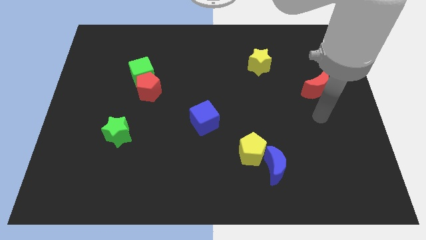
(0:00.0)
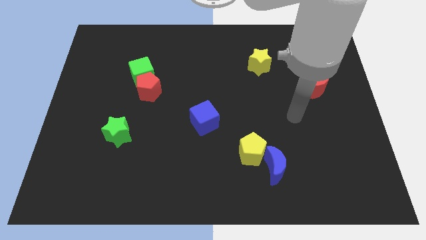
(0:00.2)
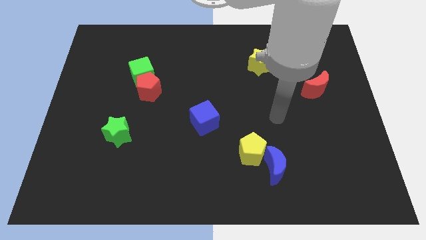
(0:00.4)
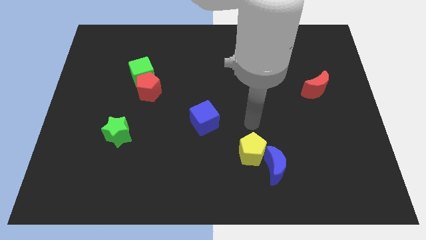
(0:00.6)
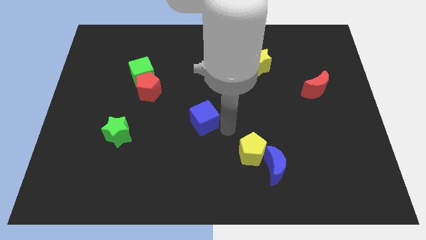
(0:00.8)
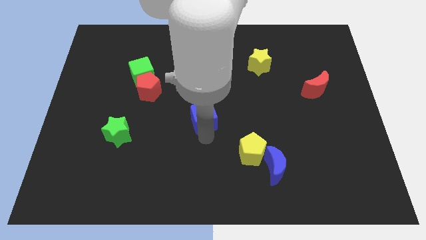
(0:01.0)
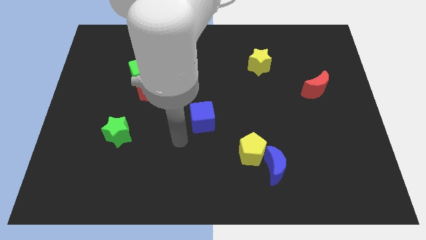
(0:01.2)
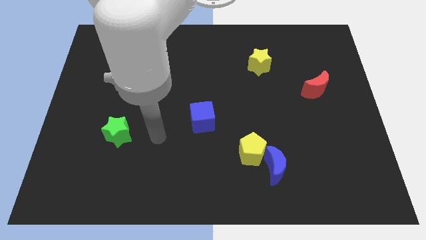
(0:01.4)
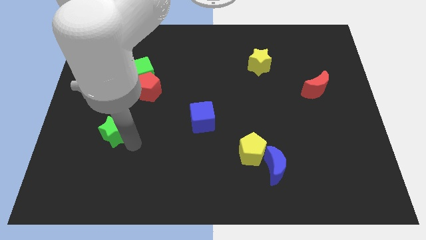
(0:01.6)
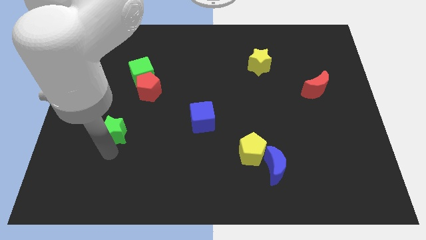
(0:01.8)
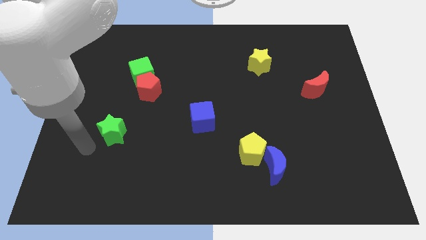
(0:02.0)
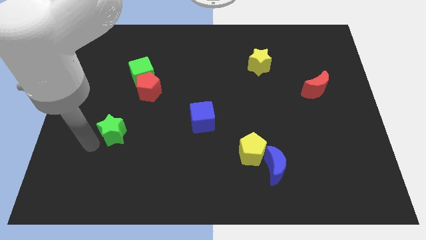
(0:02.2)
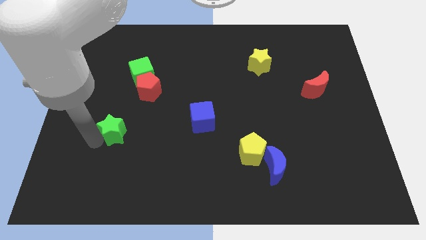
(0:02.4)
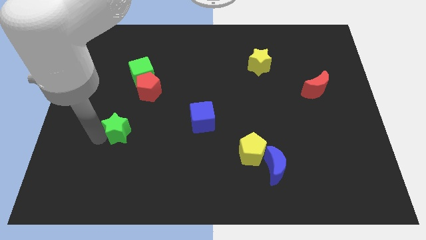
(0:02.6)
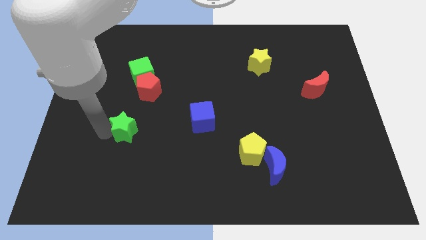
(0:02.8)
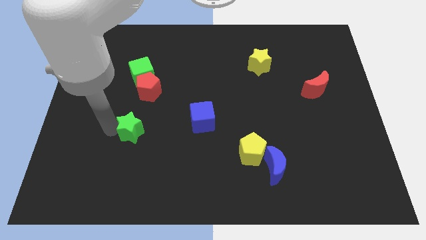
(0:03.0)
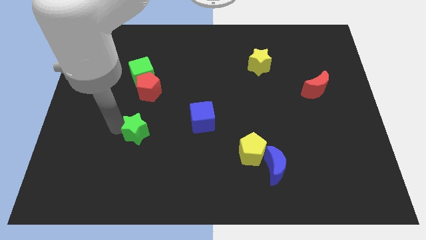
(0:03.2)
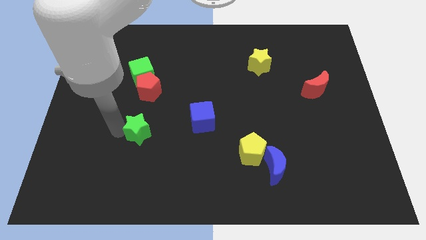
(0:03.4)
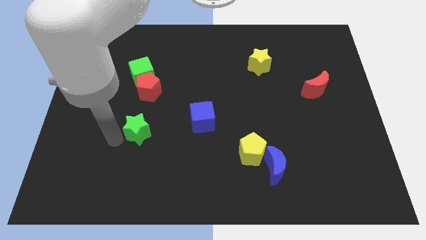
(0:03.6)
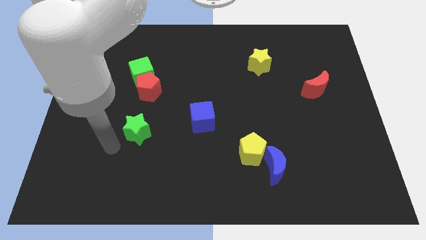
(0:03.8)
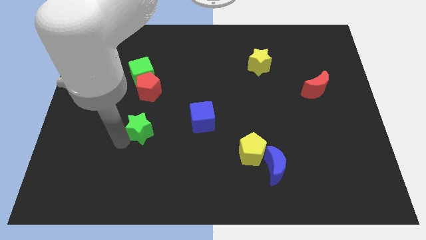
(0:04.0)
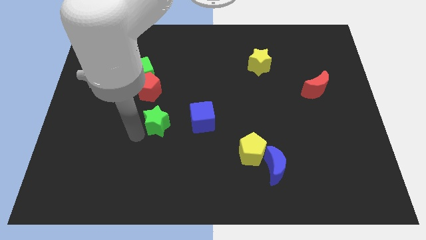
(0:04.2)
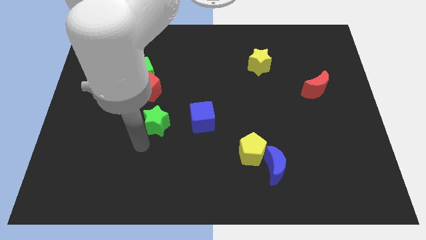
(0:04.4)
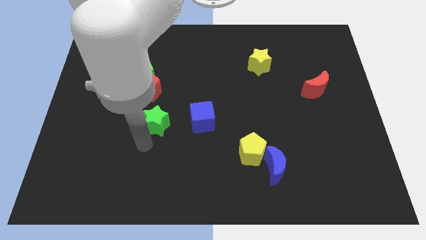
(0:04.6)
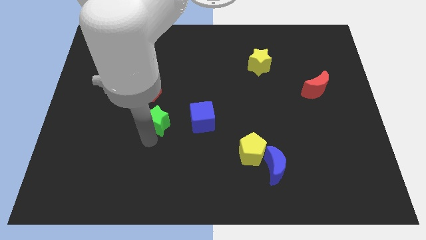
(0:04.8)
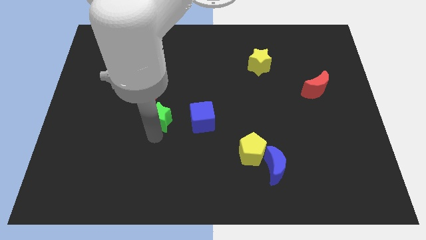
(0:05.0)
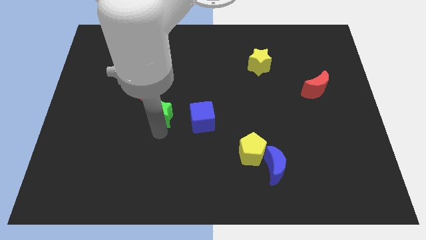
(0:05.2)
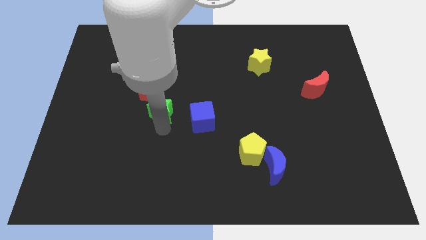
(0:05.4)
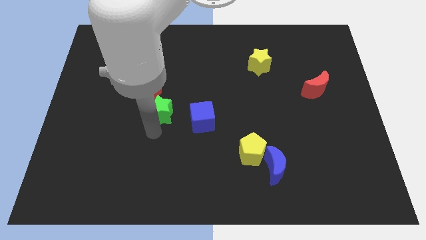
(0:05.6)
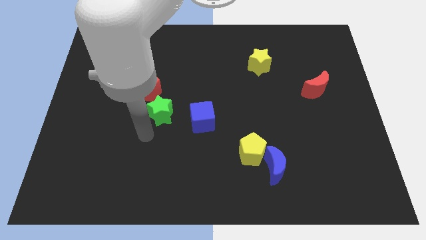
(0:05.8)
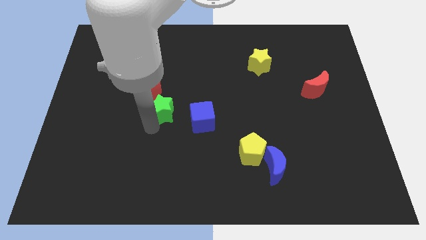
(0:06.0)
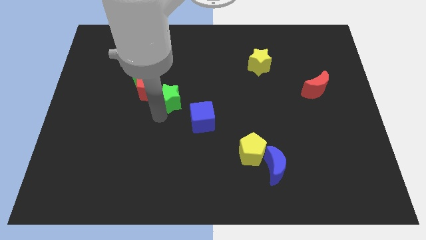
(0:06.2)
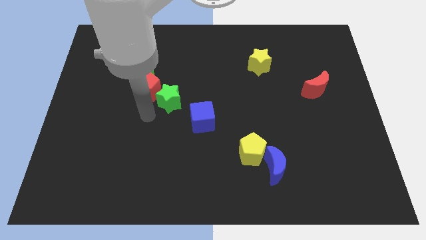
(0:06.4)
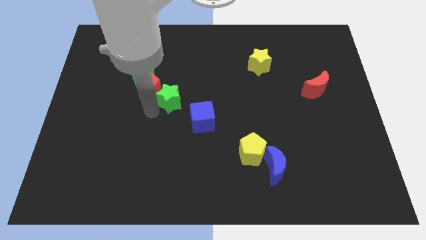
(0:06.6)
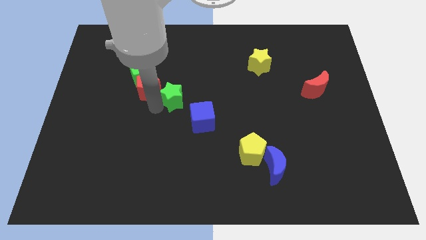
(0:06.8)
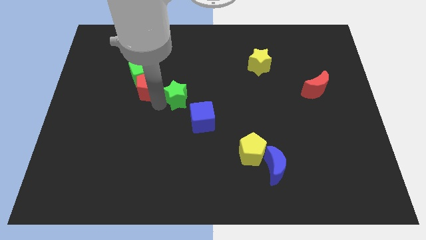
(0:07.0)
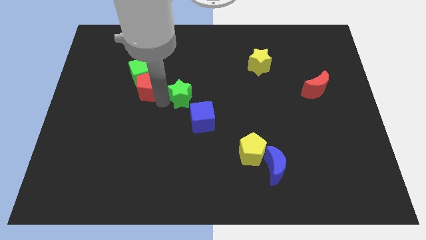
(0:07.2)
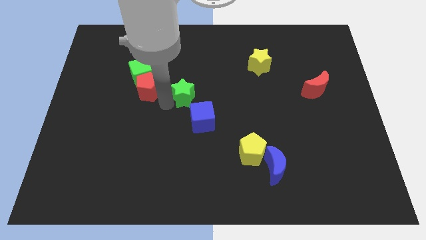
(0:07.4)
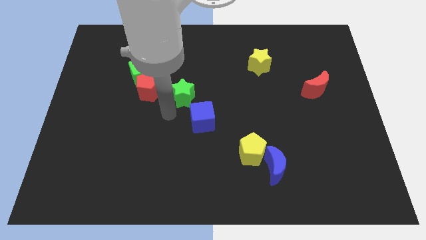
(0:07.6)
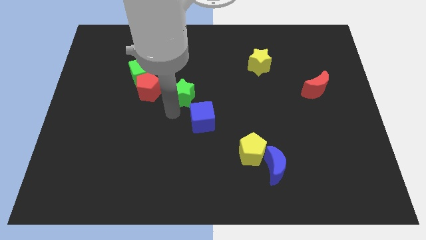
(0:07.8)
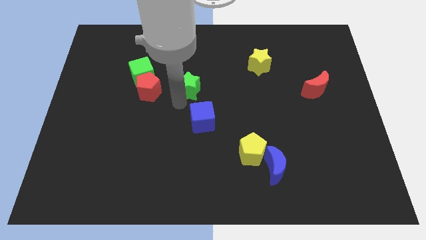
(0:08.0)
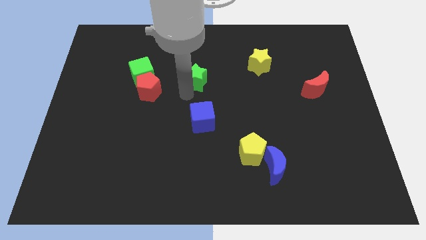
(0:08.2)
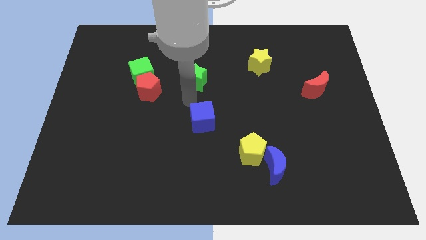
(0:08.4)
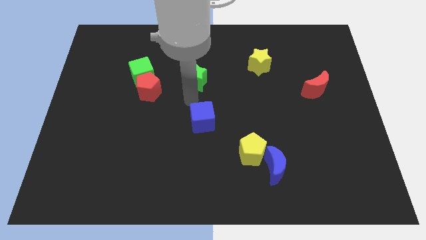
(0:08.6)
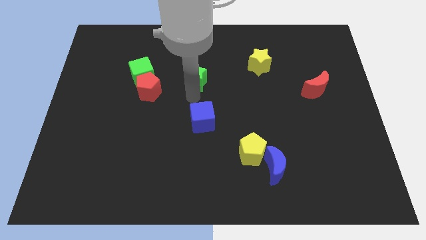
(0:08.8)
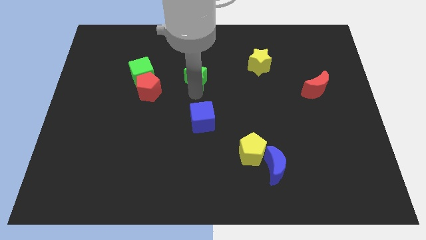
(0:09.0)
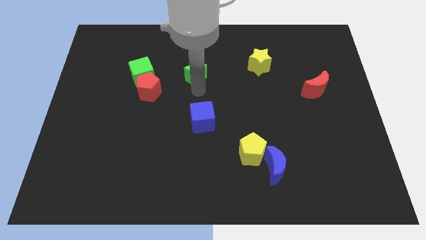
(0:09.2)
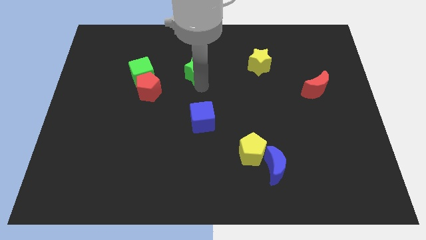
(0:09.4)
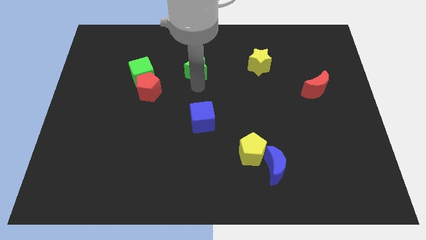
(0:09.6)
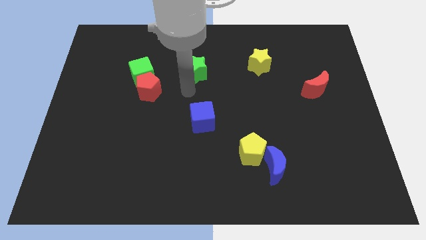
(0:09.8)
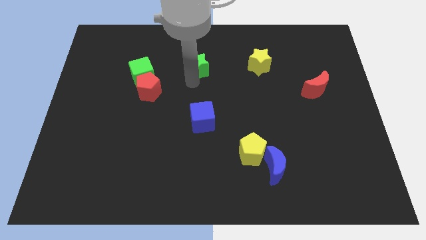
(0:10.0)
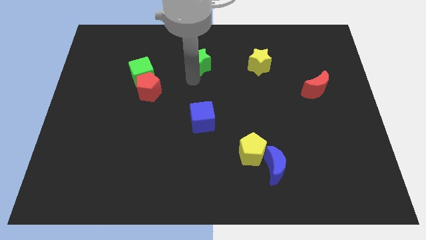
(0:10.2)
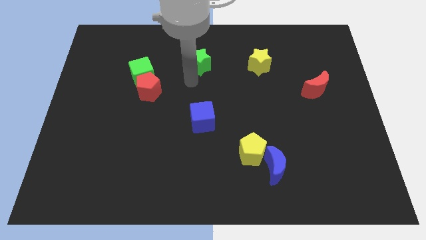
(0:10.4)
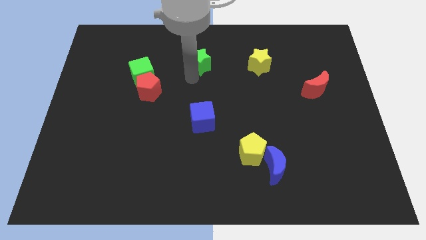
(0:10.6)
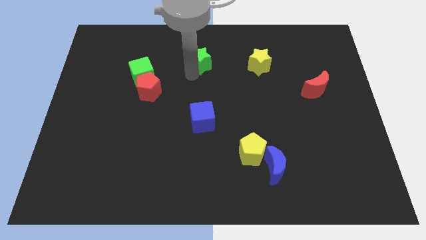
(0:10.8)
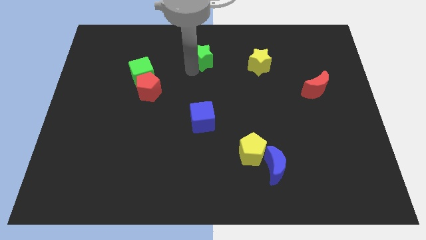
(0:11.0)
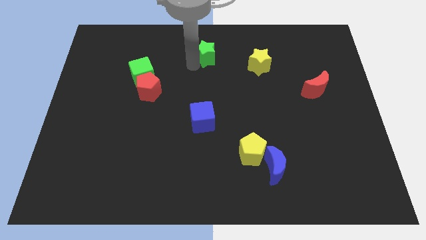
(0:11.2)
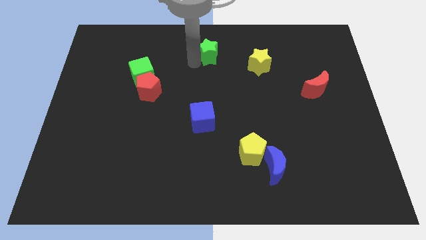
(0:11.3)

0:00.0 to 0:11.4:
move the green star to the towards your base
